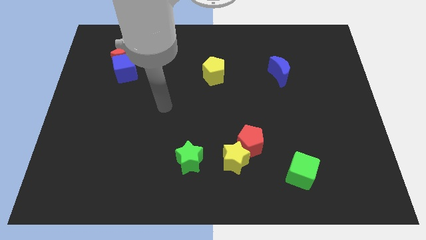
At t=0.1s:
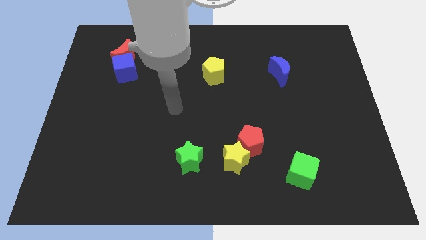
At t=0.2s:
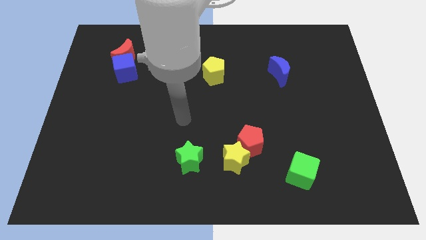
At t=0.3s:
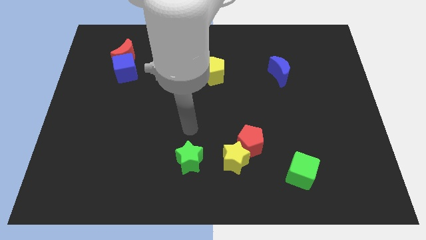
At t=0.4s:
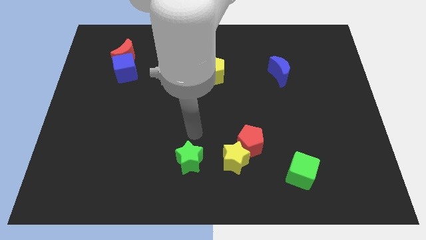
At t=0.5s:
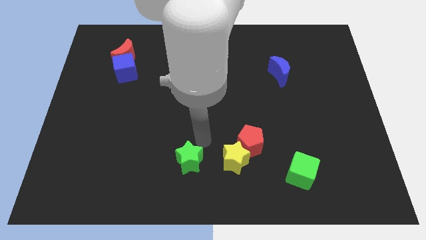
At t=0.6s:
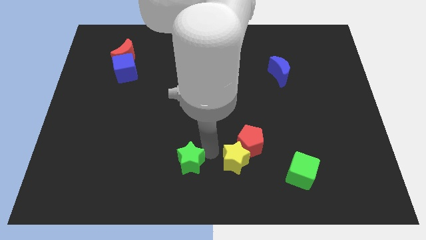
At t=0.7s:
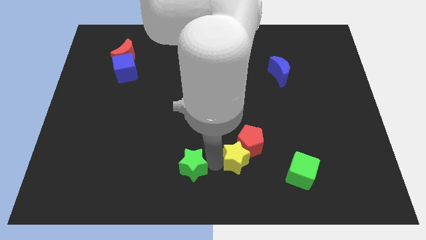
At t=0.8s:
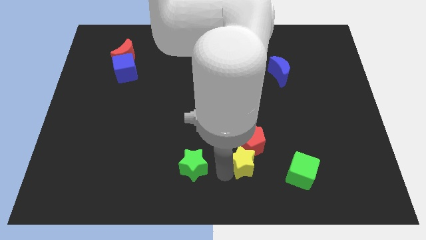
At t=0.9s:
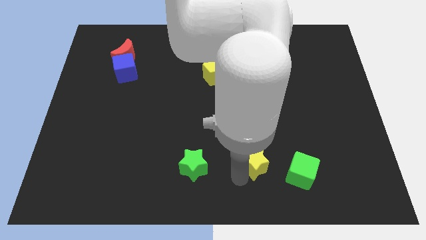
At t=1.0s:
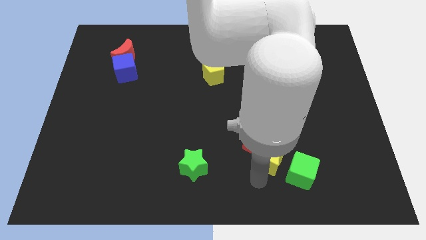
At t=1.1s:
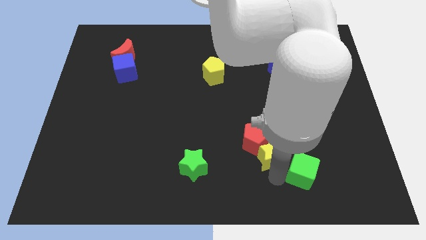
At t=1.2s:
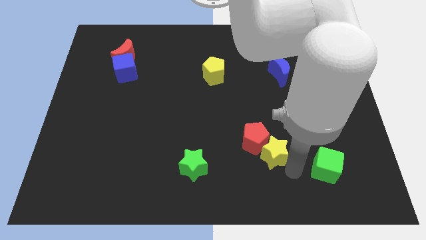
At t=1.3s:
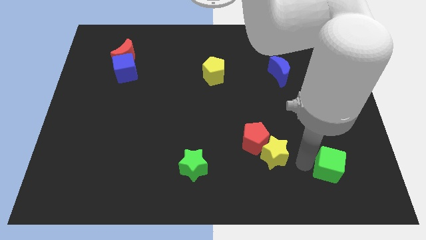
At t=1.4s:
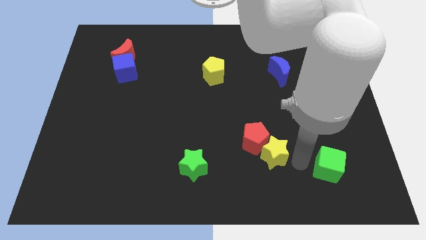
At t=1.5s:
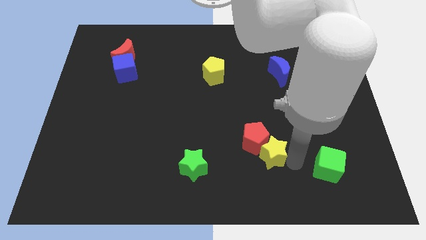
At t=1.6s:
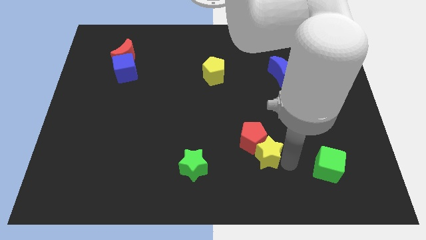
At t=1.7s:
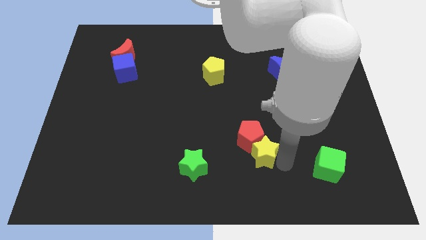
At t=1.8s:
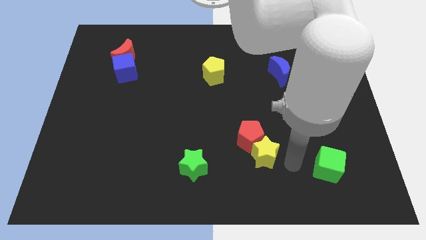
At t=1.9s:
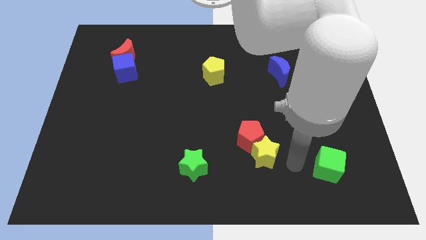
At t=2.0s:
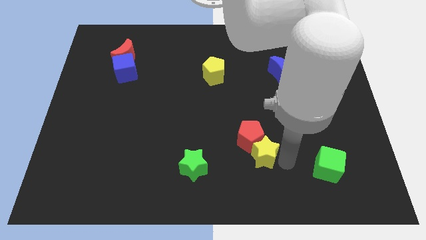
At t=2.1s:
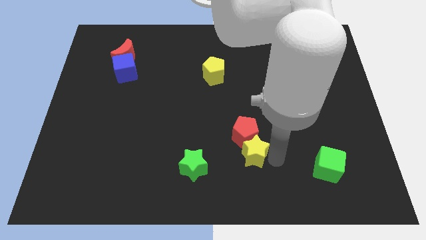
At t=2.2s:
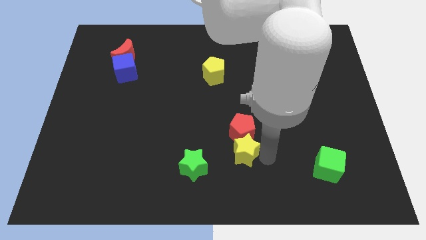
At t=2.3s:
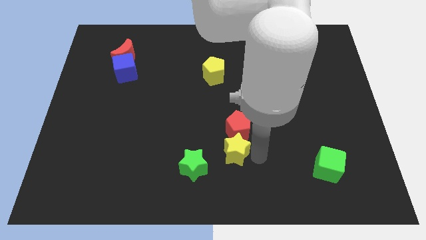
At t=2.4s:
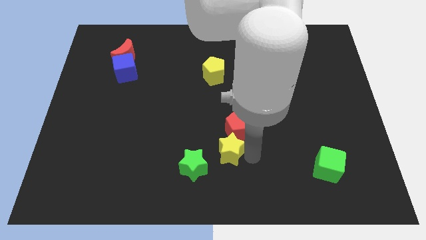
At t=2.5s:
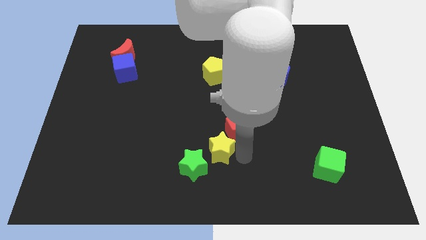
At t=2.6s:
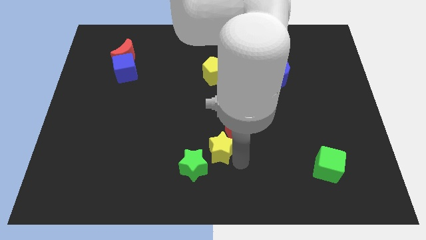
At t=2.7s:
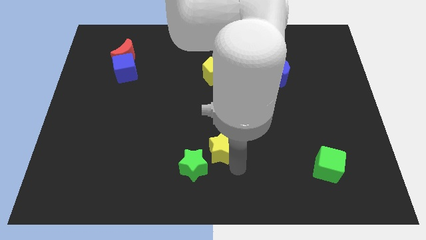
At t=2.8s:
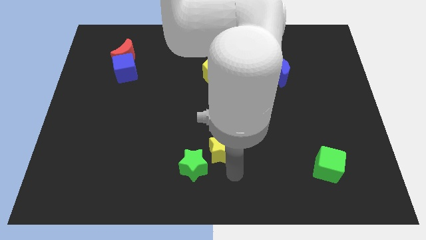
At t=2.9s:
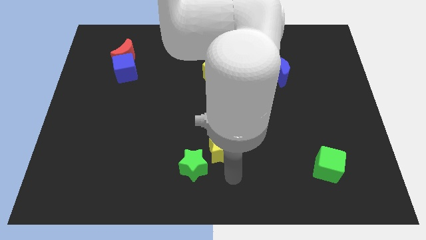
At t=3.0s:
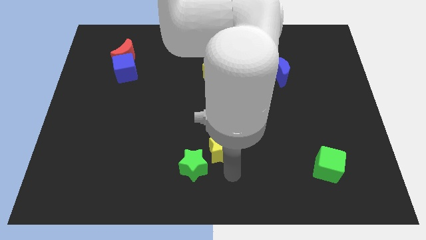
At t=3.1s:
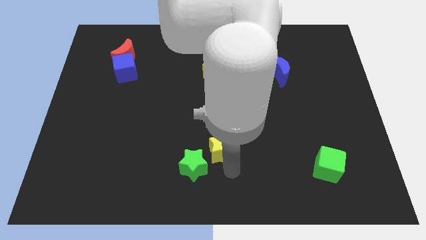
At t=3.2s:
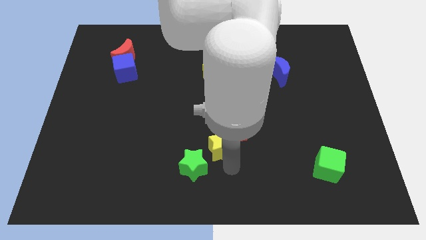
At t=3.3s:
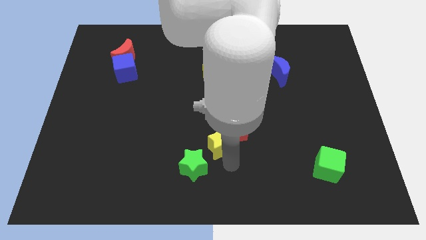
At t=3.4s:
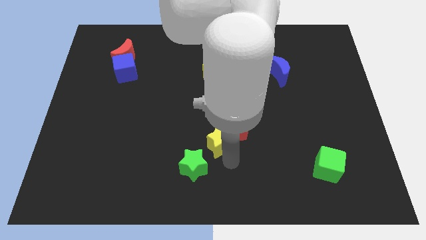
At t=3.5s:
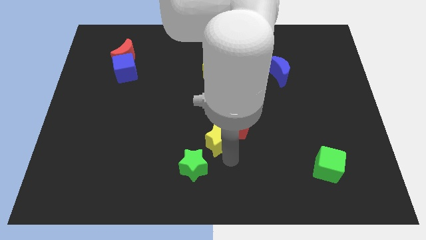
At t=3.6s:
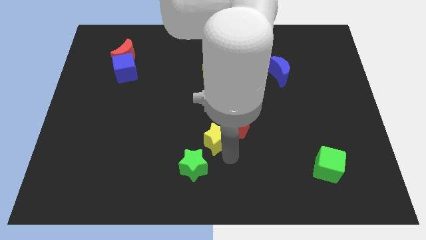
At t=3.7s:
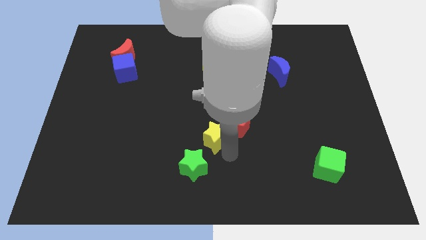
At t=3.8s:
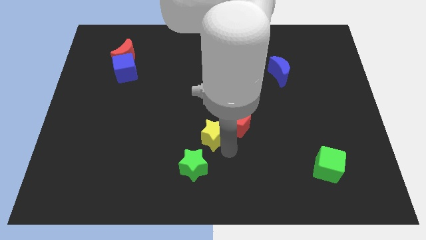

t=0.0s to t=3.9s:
slightly move the yellow star upwards and left

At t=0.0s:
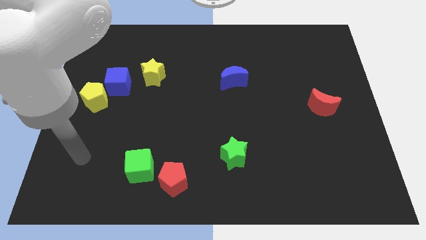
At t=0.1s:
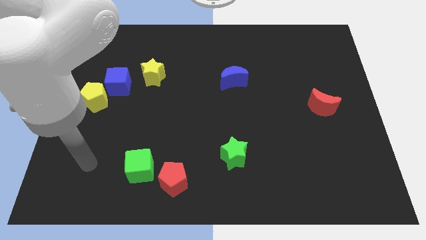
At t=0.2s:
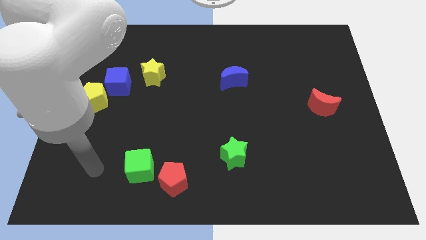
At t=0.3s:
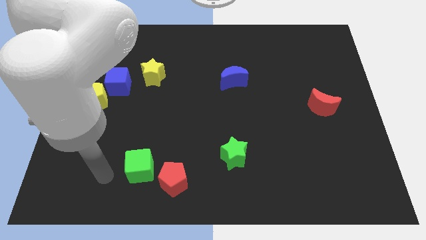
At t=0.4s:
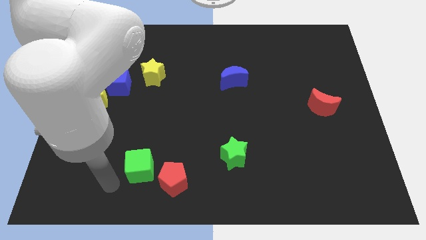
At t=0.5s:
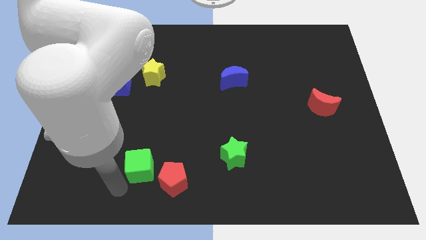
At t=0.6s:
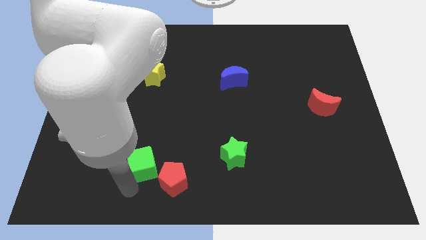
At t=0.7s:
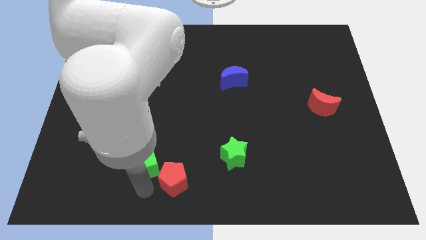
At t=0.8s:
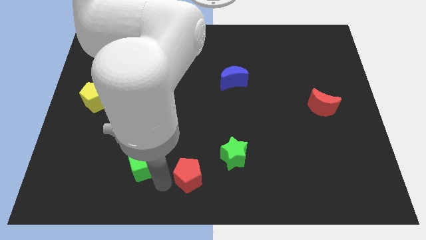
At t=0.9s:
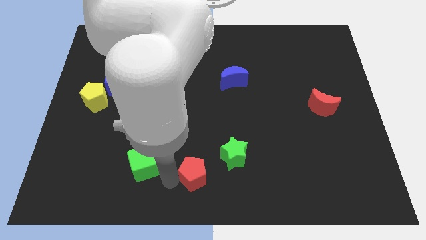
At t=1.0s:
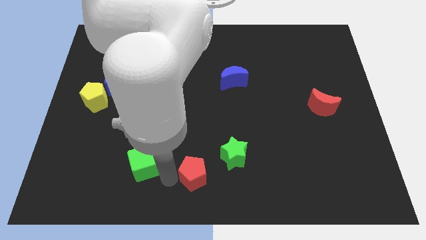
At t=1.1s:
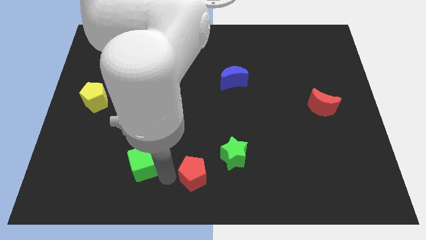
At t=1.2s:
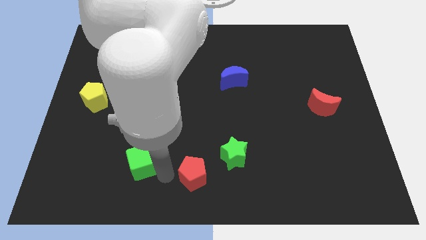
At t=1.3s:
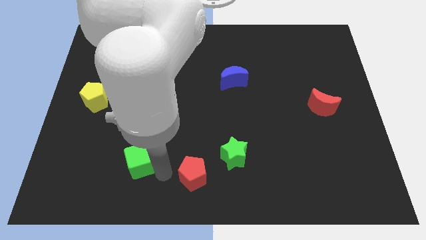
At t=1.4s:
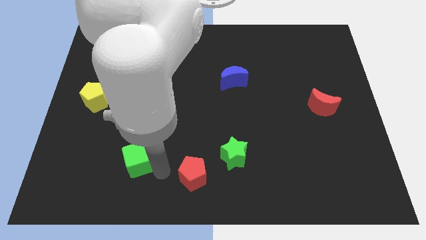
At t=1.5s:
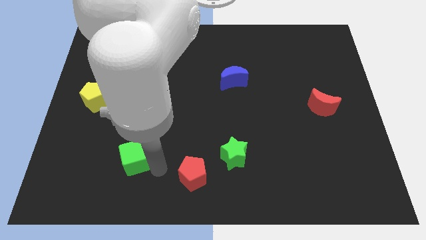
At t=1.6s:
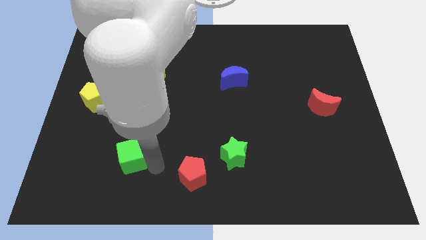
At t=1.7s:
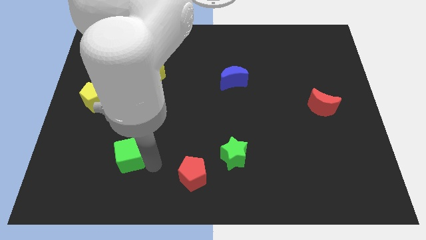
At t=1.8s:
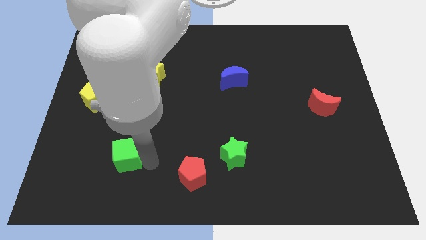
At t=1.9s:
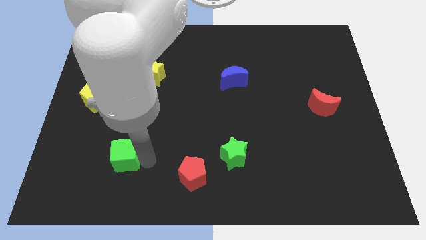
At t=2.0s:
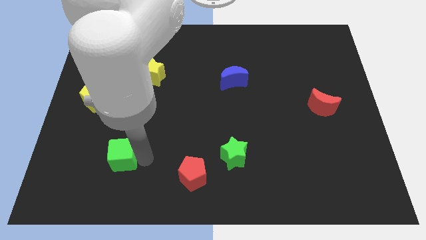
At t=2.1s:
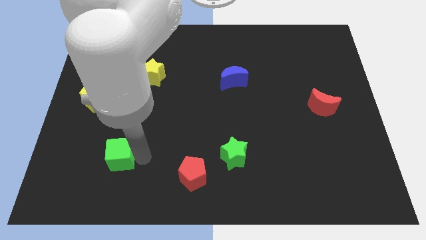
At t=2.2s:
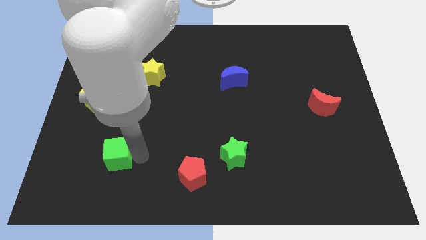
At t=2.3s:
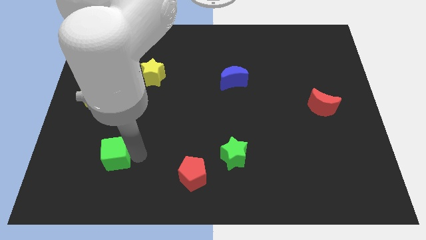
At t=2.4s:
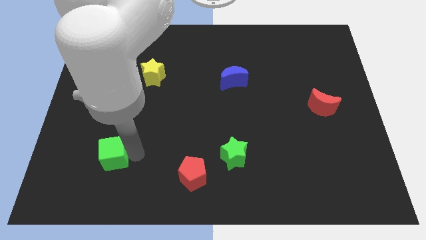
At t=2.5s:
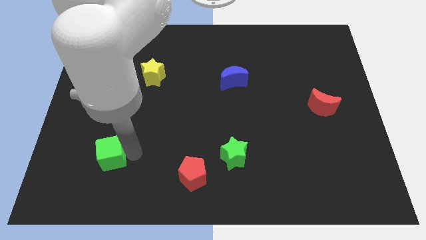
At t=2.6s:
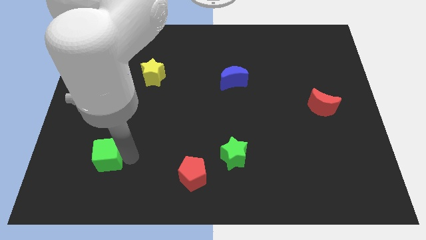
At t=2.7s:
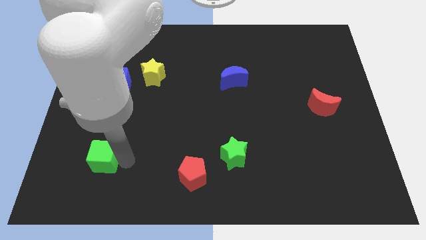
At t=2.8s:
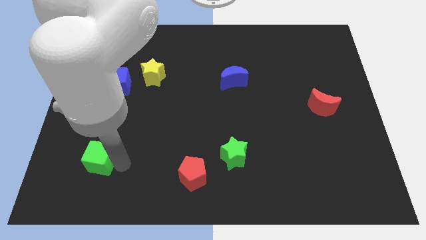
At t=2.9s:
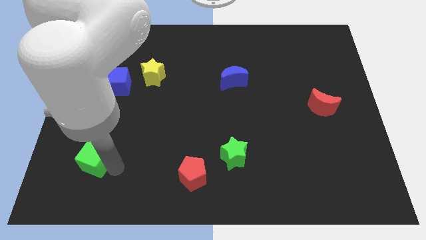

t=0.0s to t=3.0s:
move the green cube a bit upwards and then left

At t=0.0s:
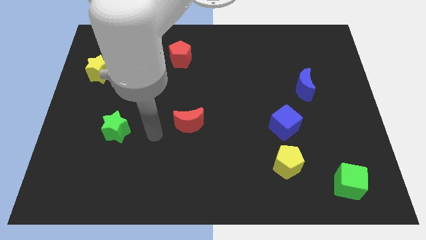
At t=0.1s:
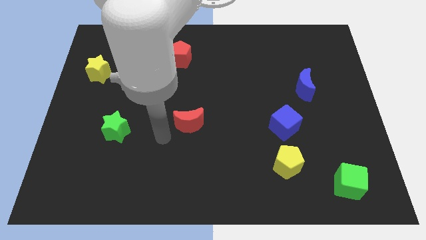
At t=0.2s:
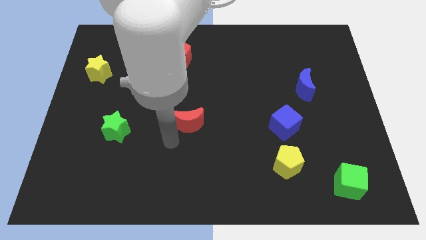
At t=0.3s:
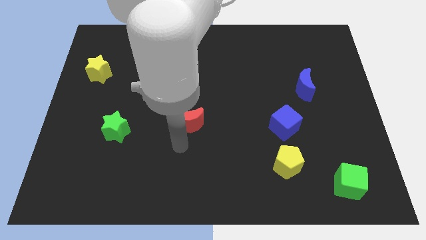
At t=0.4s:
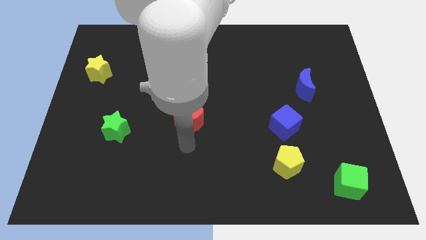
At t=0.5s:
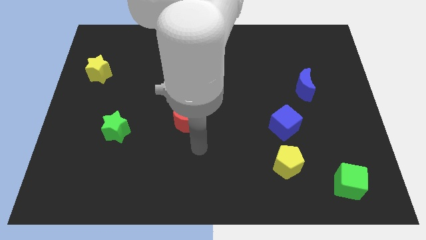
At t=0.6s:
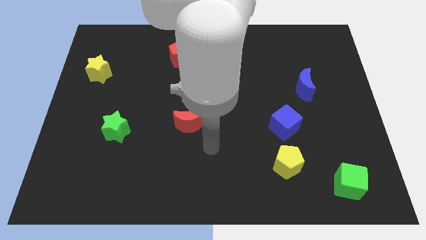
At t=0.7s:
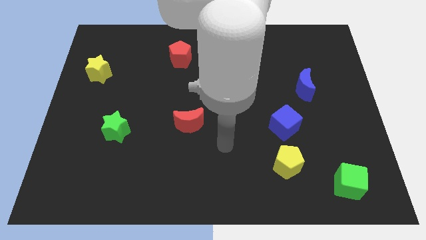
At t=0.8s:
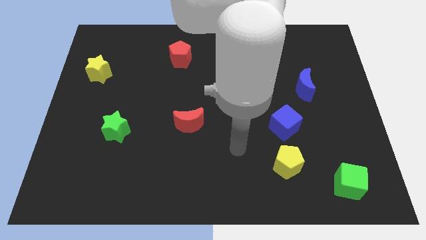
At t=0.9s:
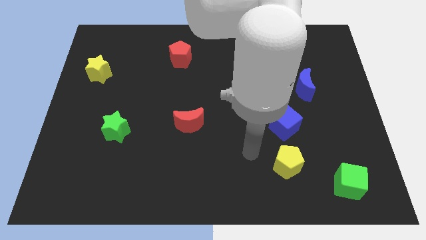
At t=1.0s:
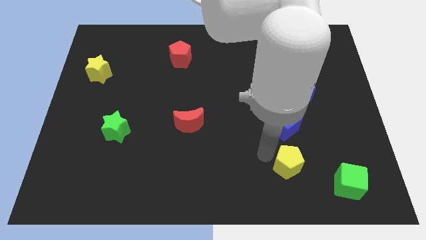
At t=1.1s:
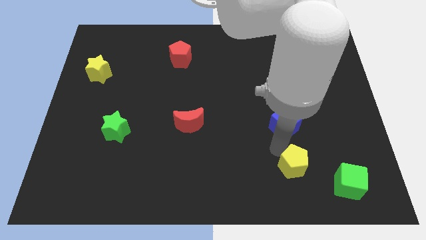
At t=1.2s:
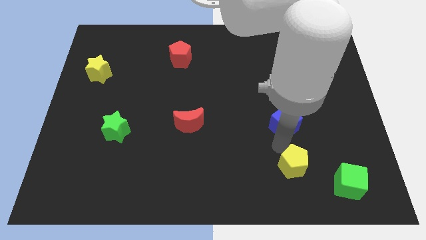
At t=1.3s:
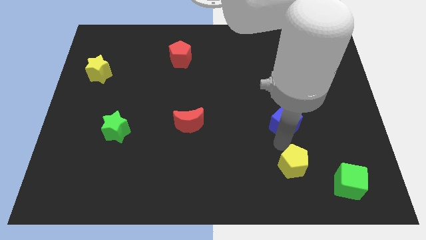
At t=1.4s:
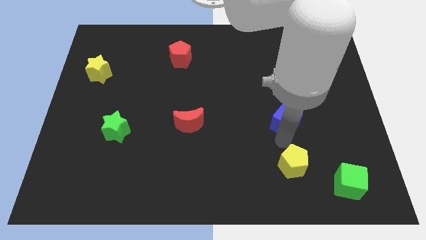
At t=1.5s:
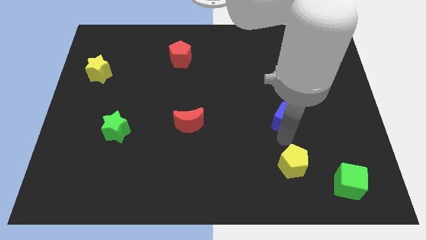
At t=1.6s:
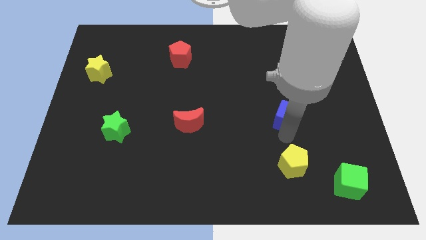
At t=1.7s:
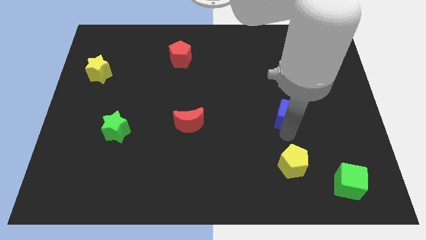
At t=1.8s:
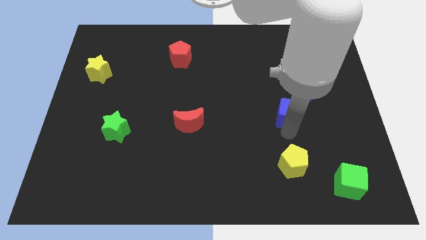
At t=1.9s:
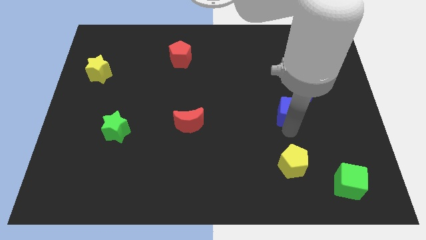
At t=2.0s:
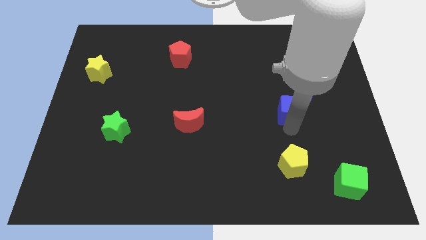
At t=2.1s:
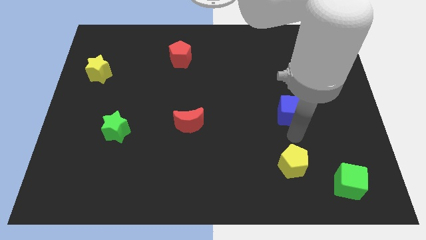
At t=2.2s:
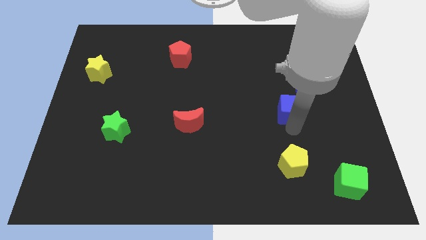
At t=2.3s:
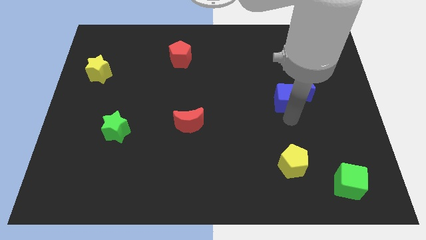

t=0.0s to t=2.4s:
move the blue cube upwards somewhat
